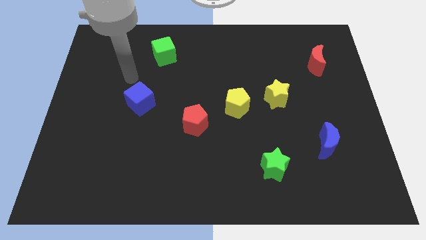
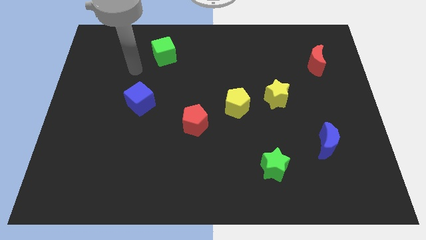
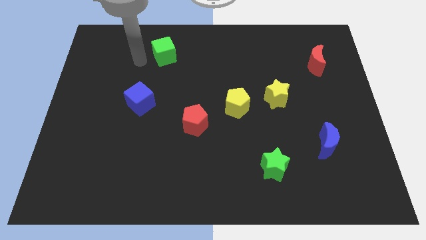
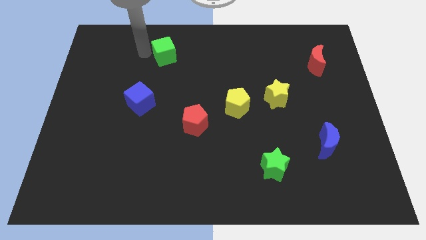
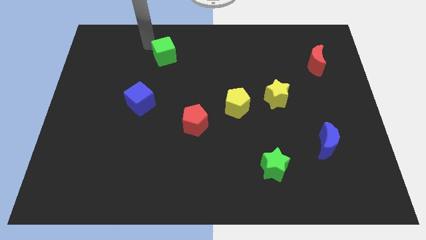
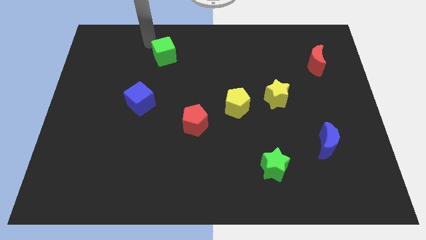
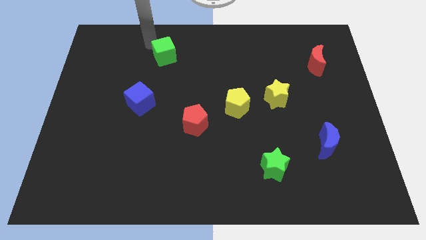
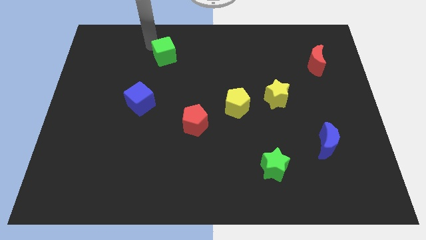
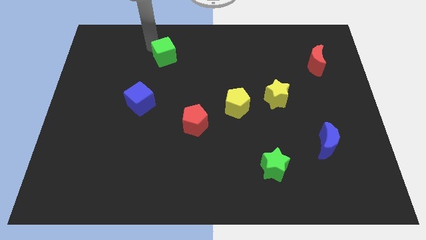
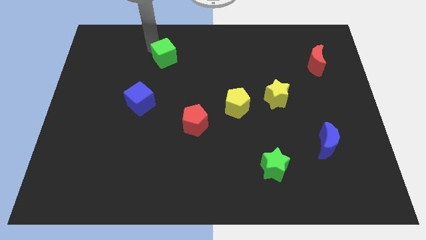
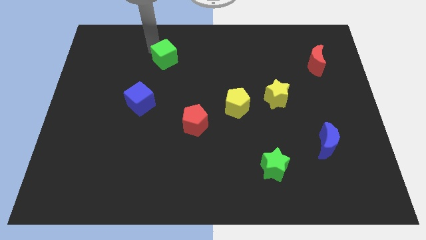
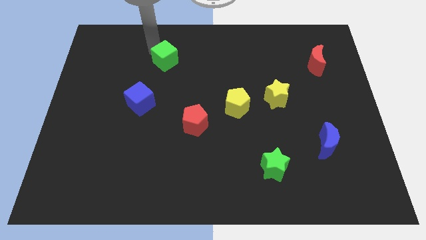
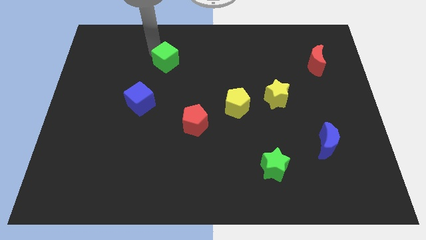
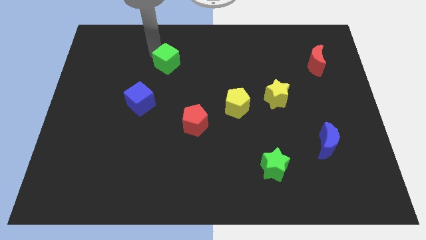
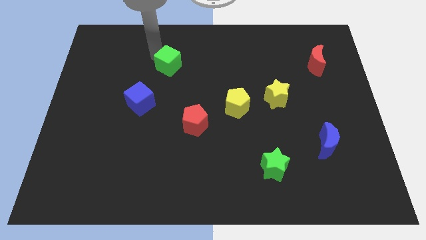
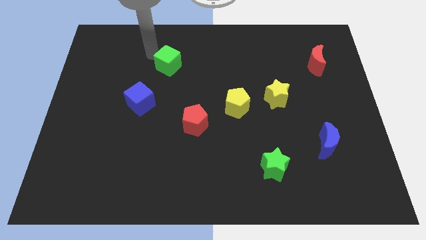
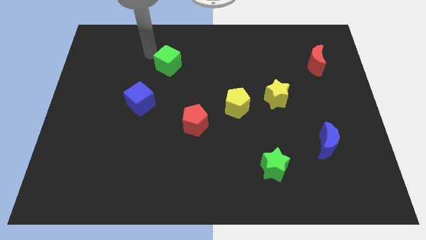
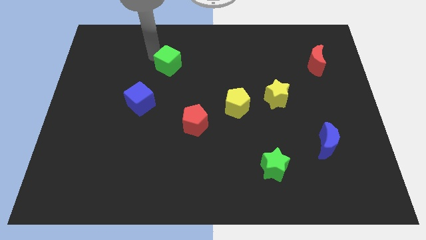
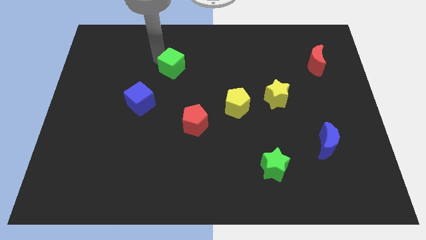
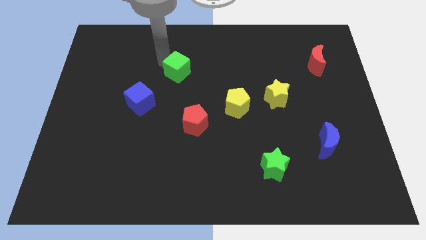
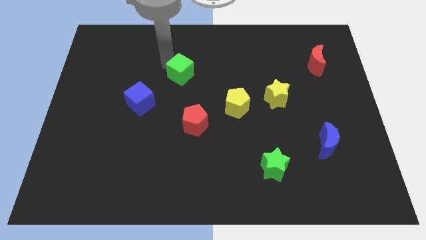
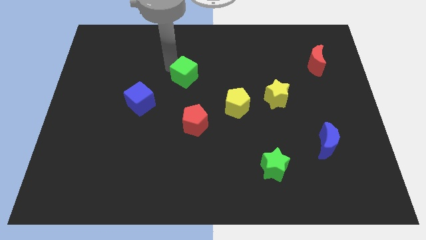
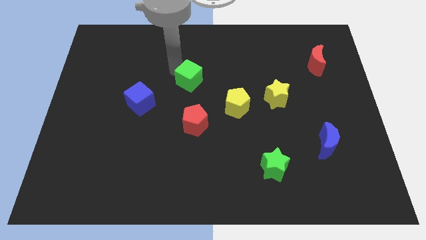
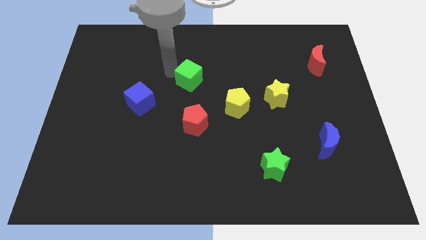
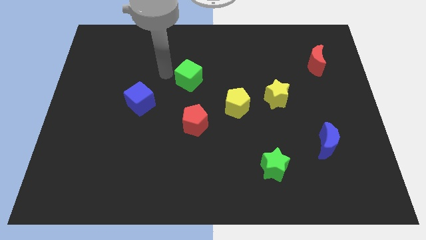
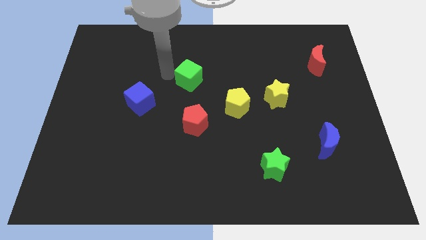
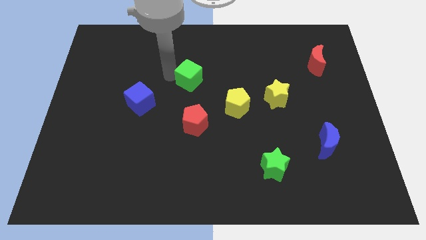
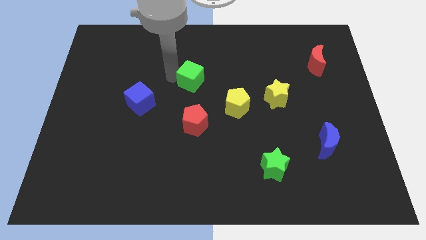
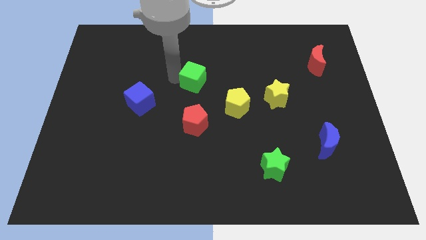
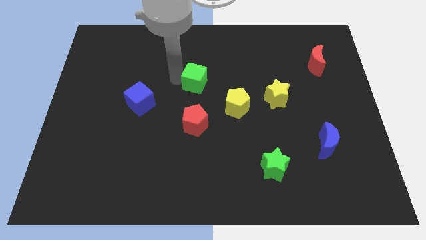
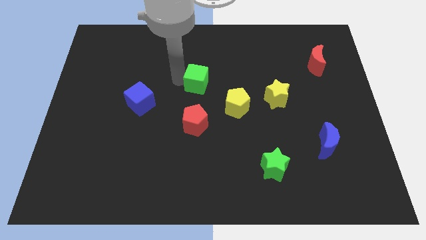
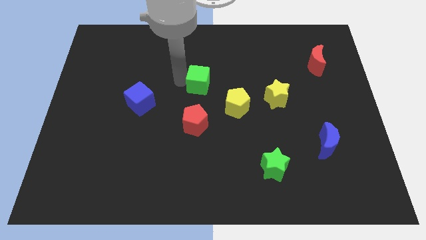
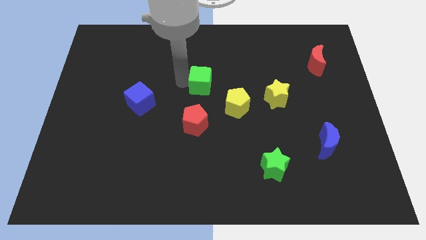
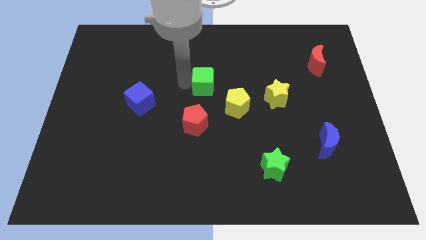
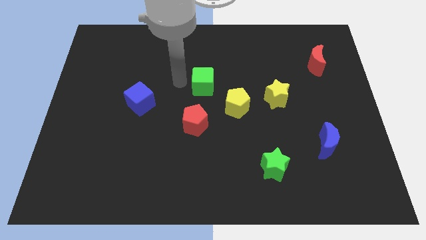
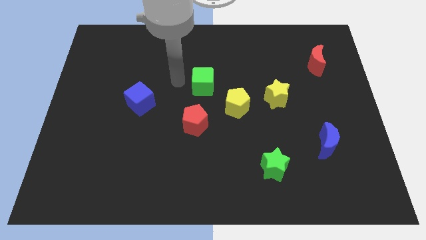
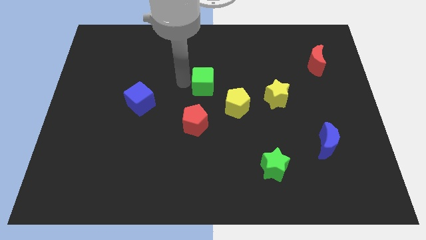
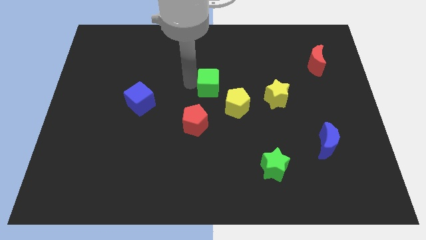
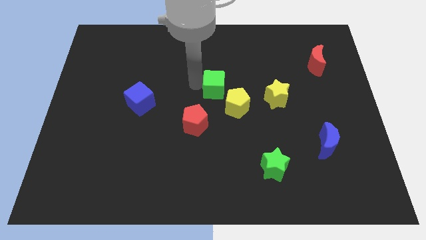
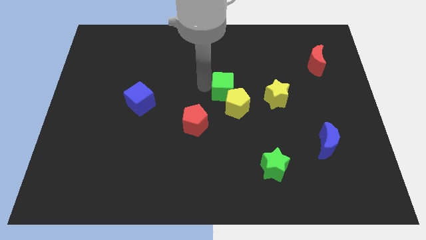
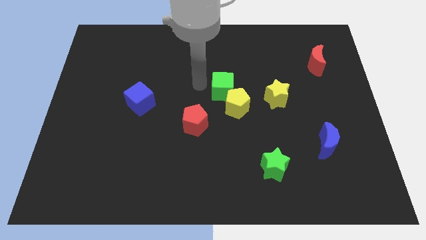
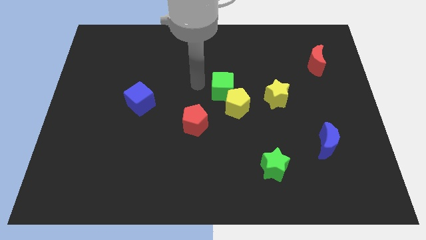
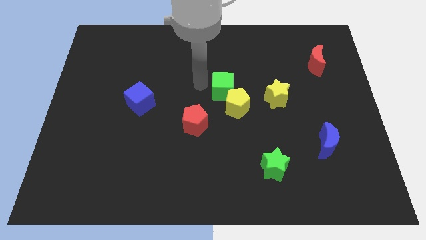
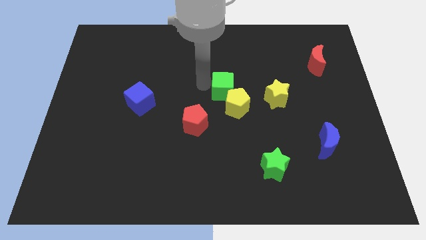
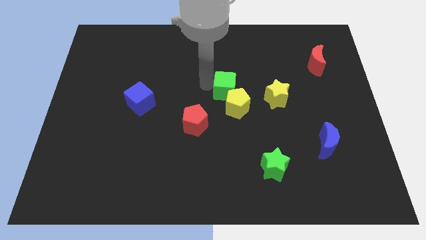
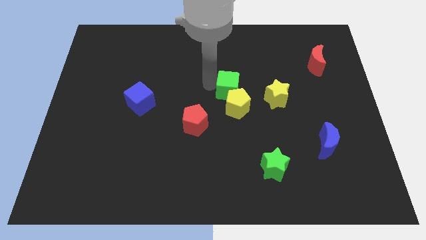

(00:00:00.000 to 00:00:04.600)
slide the green cube diagonally downwards and right

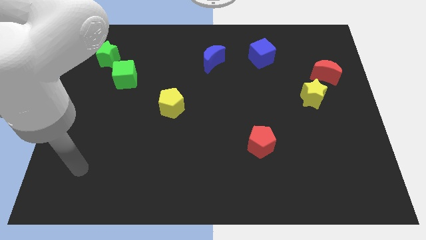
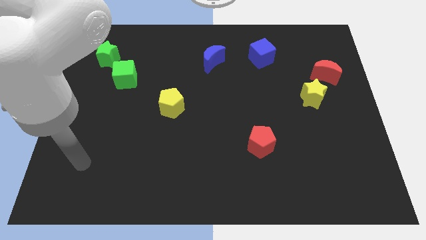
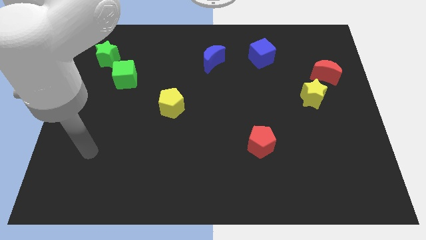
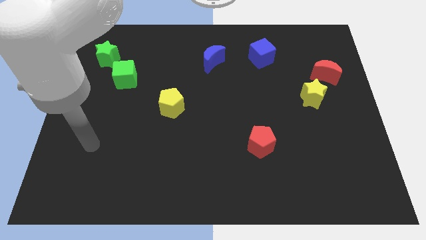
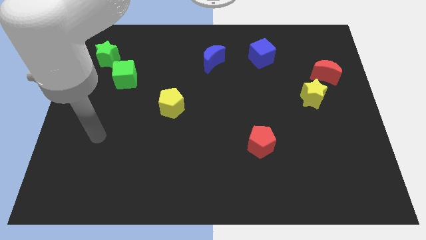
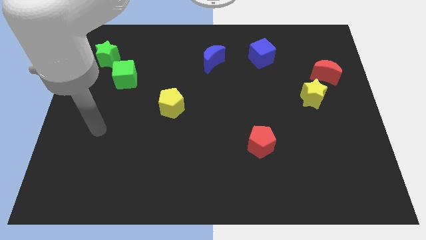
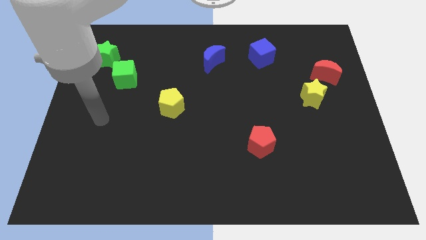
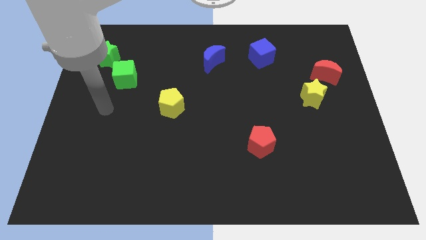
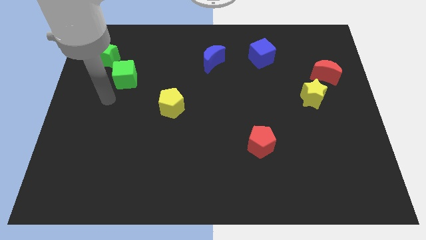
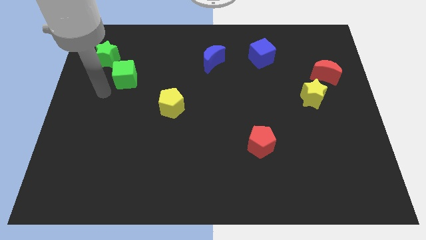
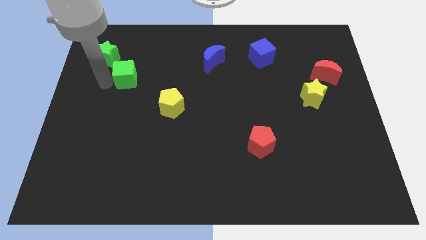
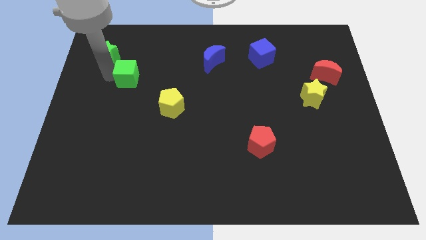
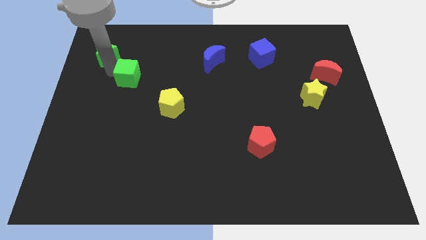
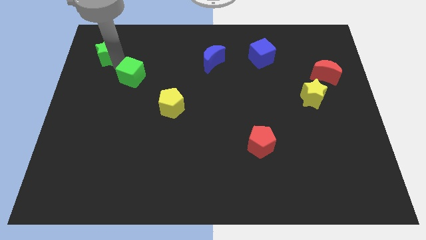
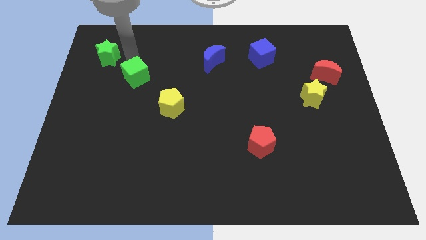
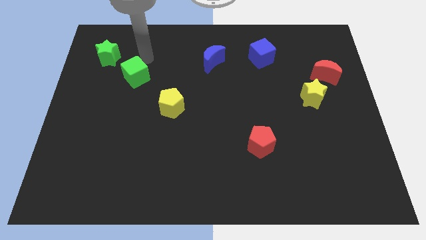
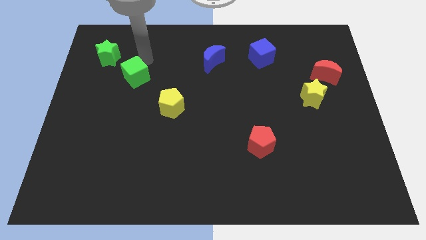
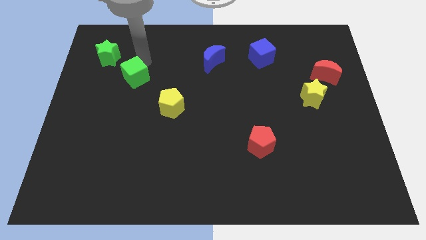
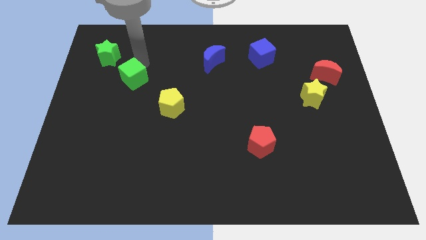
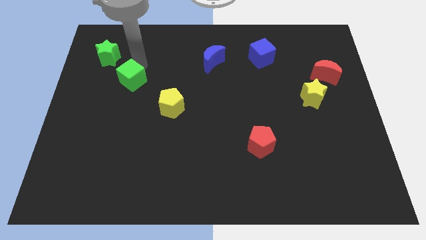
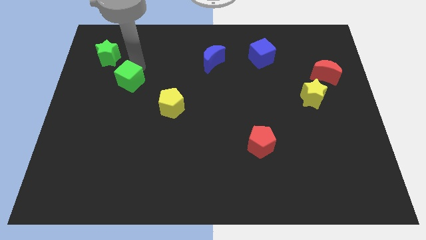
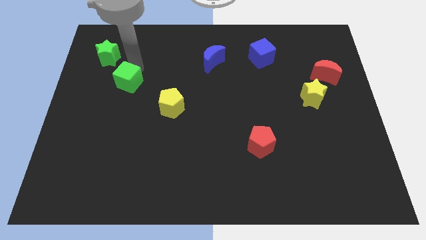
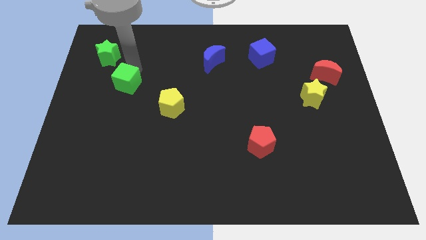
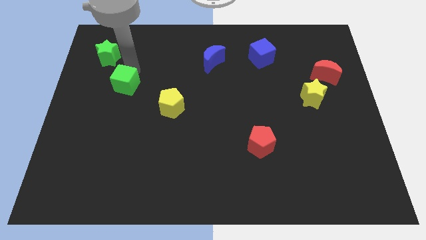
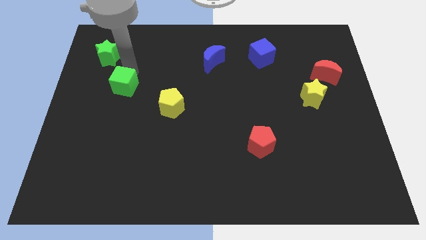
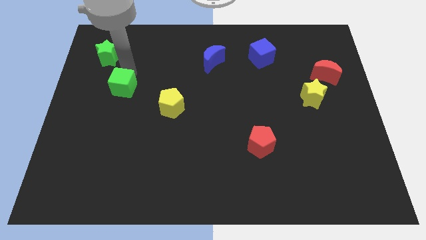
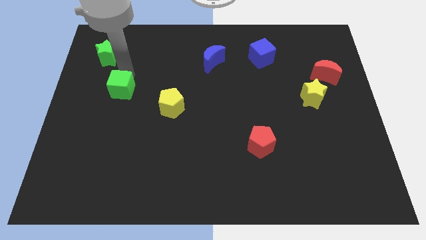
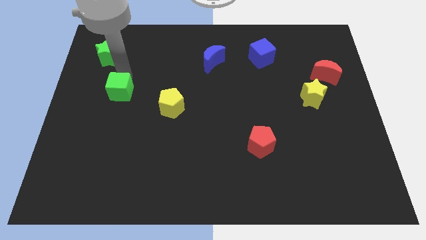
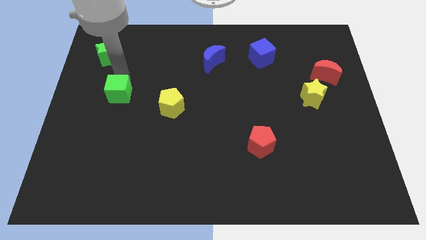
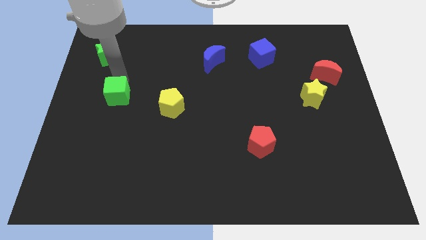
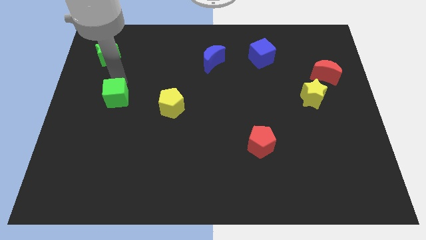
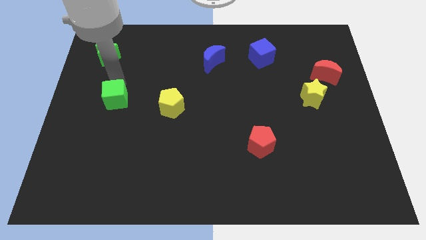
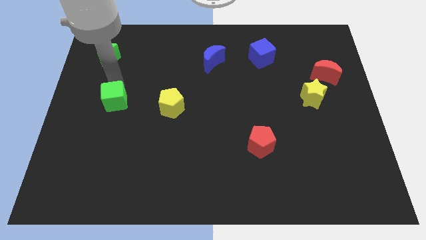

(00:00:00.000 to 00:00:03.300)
slightly move the green cube down

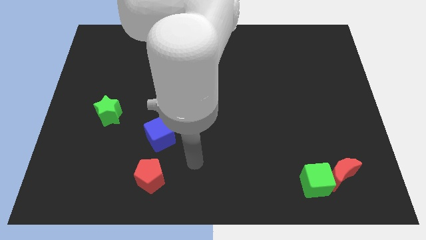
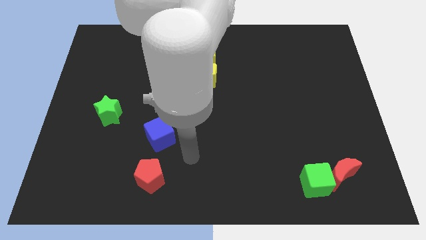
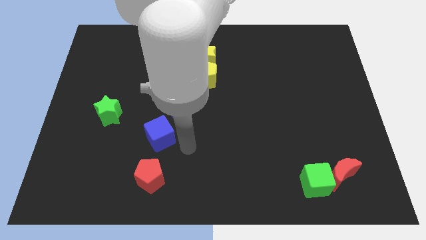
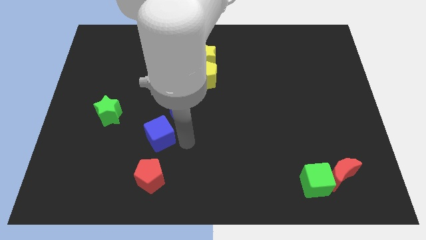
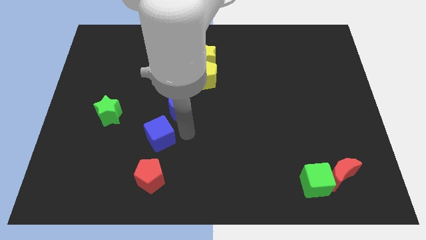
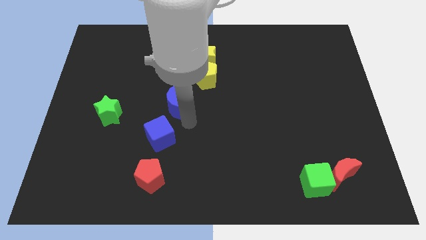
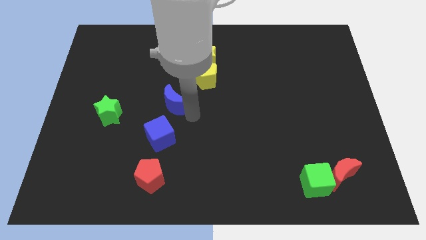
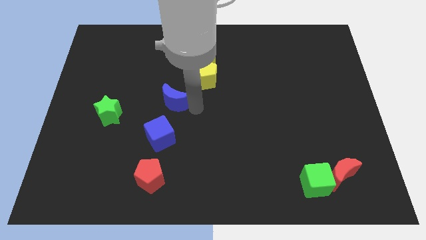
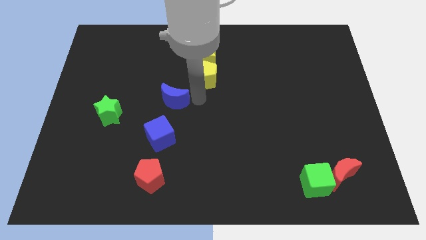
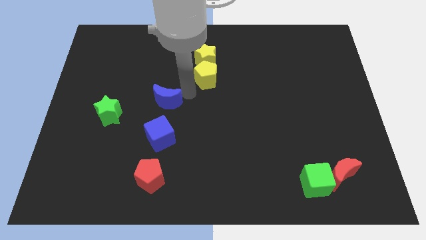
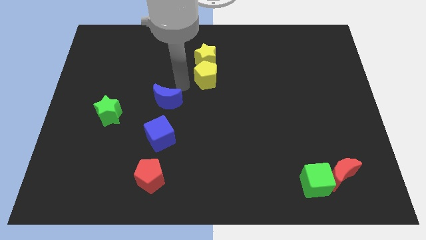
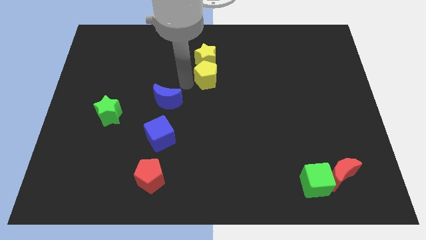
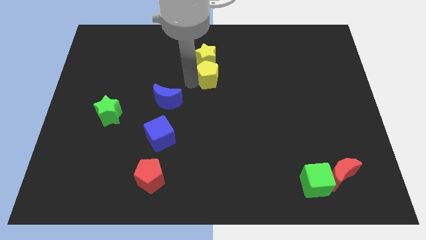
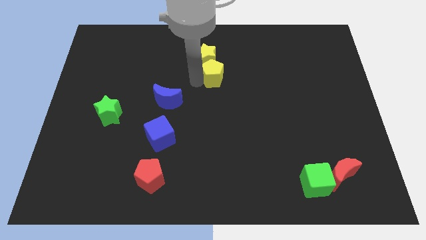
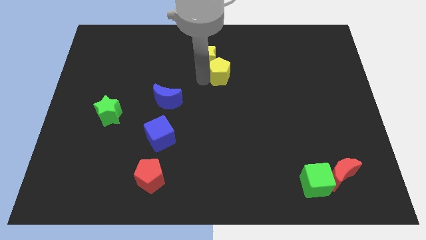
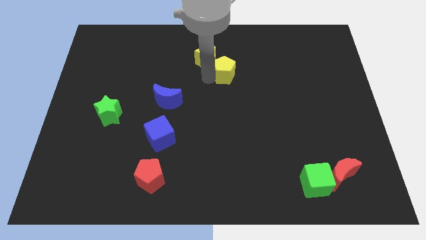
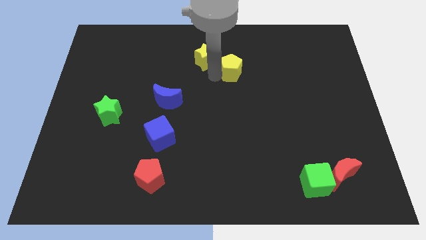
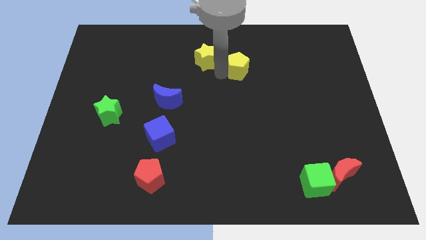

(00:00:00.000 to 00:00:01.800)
slightly slide the yellow pentagon to the right
